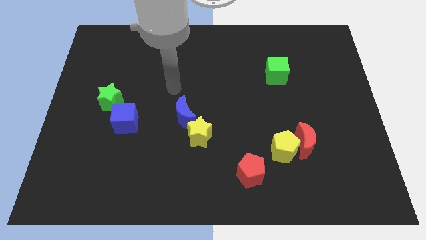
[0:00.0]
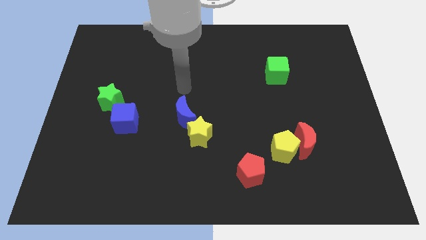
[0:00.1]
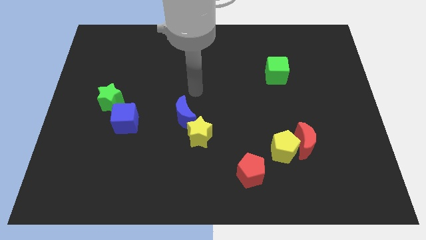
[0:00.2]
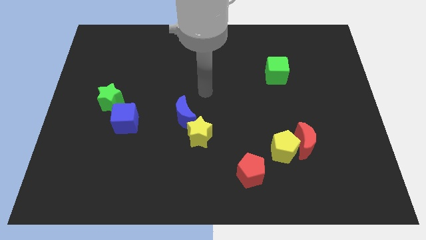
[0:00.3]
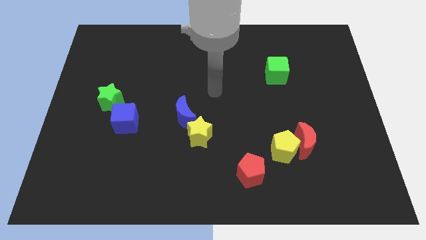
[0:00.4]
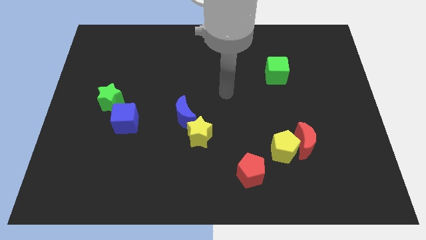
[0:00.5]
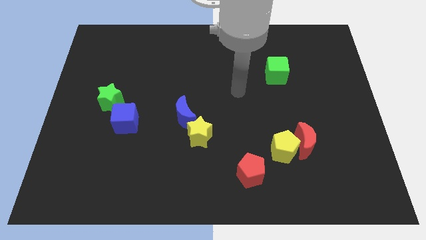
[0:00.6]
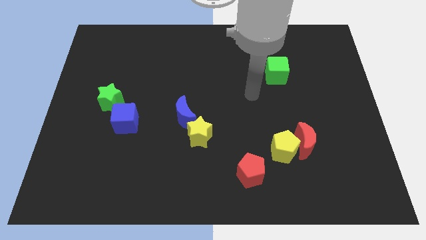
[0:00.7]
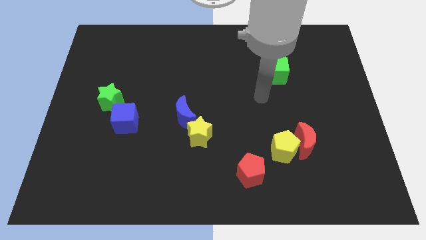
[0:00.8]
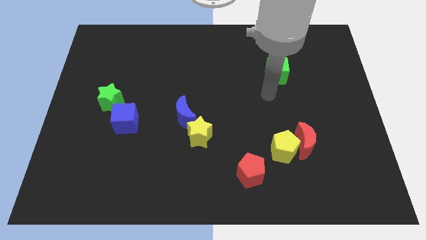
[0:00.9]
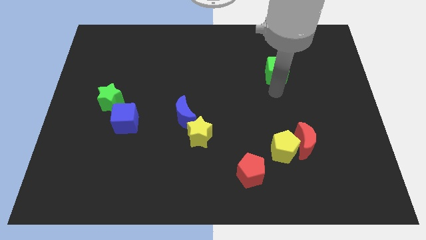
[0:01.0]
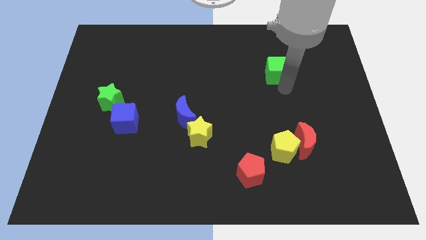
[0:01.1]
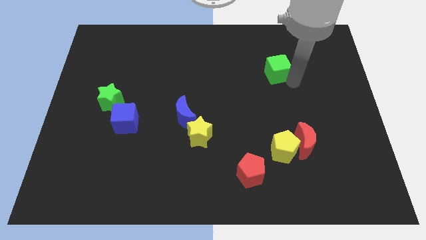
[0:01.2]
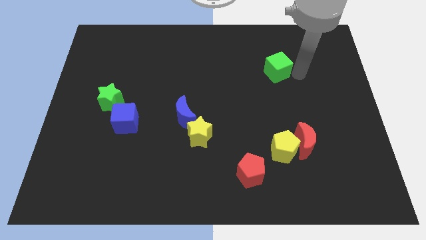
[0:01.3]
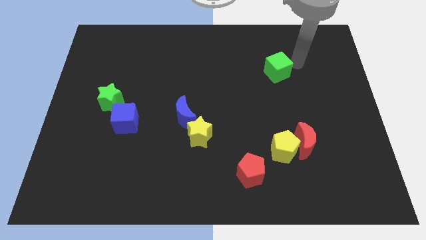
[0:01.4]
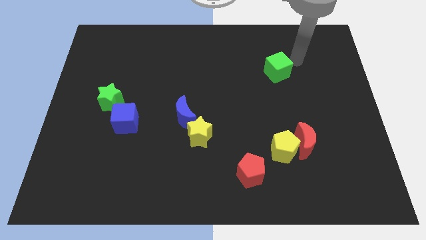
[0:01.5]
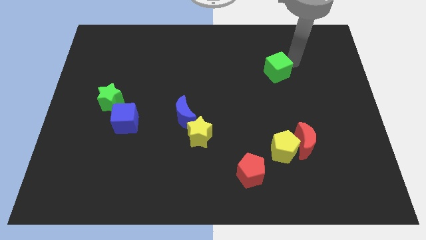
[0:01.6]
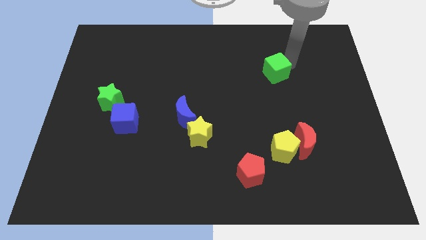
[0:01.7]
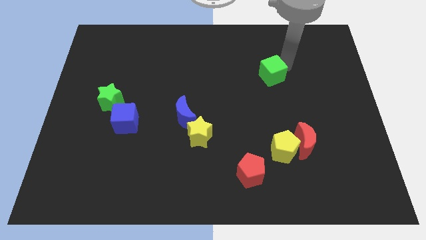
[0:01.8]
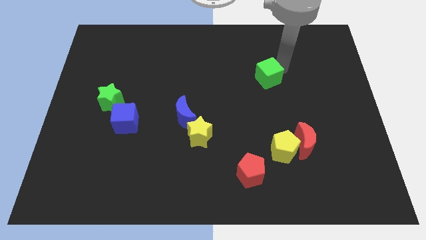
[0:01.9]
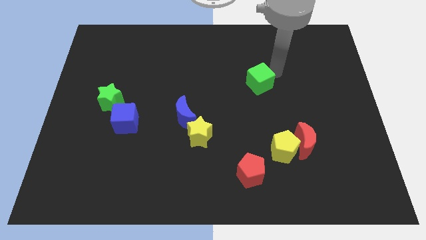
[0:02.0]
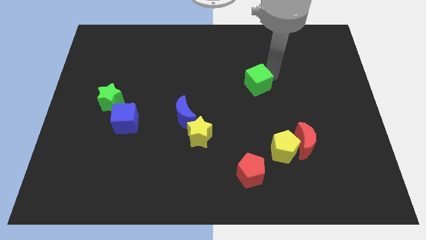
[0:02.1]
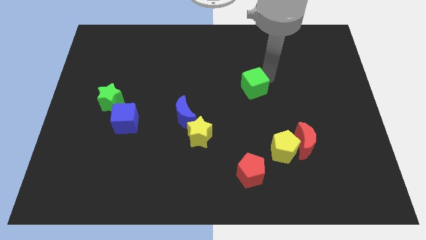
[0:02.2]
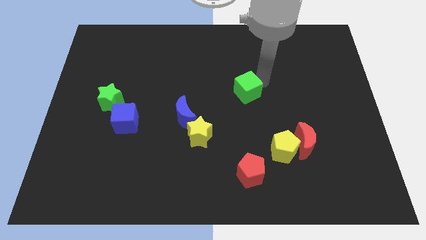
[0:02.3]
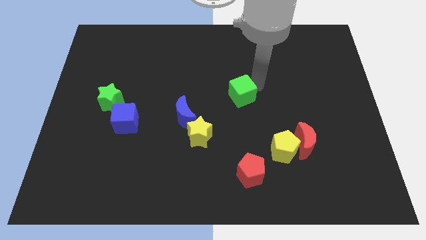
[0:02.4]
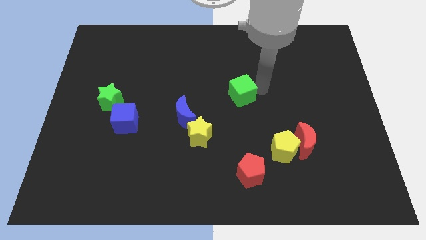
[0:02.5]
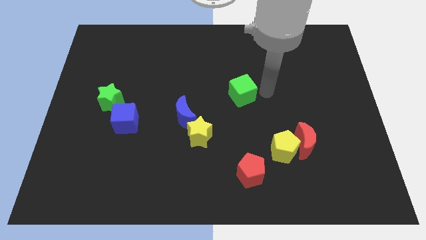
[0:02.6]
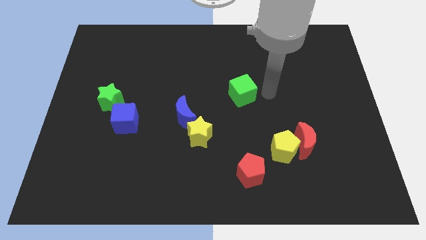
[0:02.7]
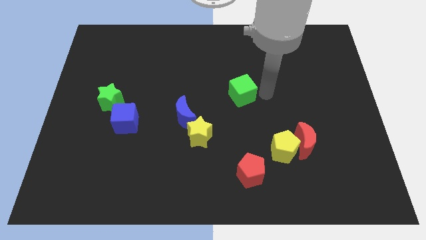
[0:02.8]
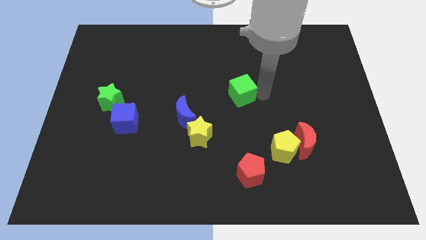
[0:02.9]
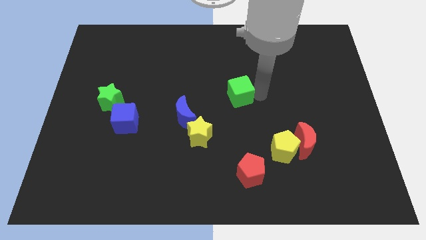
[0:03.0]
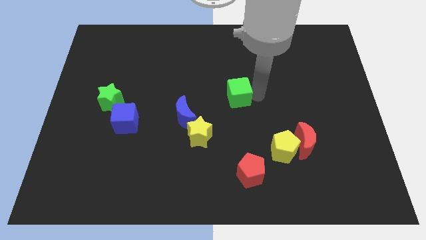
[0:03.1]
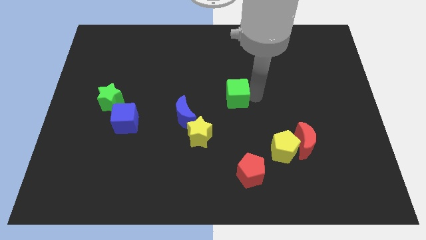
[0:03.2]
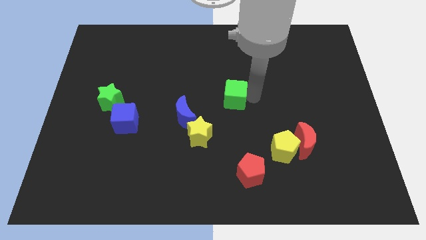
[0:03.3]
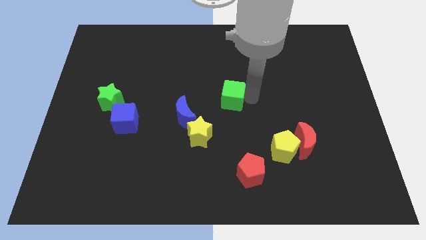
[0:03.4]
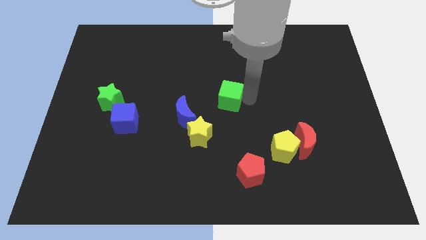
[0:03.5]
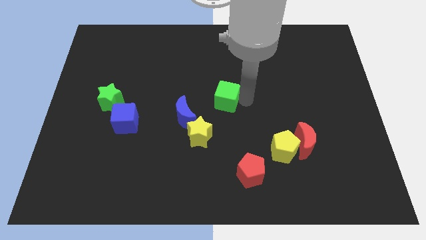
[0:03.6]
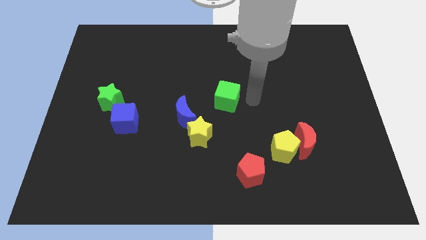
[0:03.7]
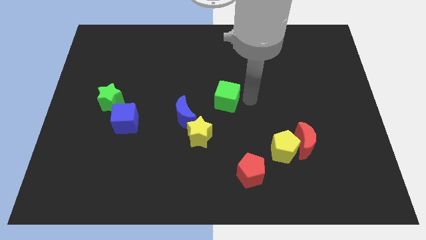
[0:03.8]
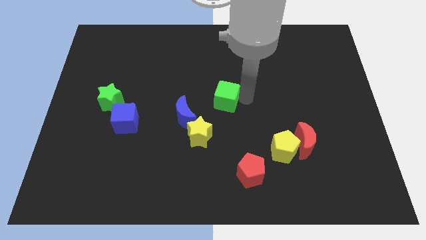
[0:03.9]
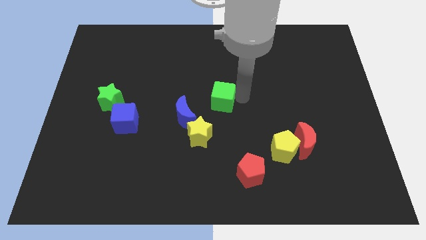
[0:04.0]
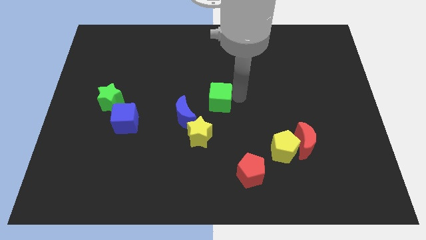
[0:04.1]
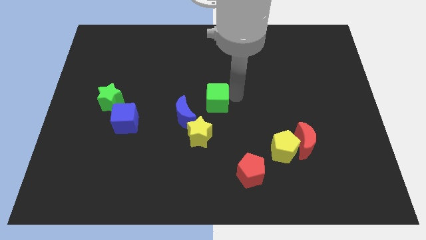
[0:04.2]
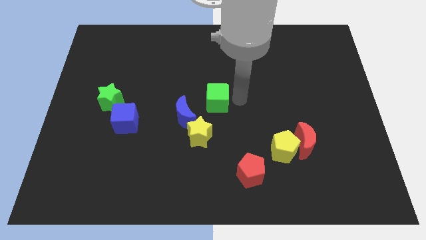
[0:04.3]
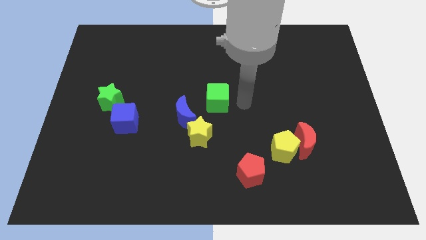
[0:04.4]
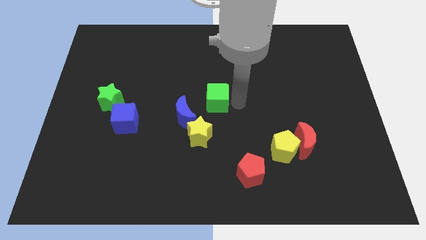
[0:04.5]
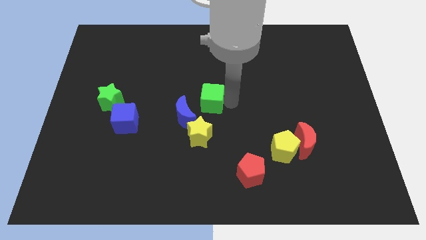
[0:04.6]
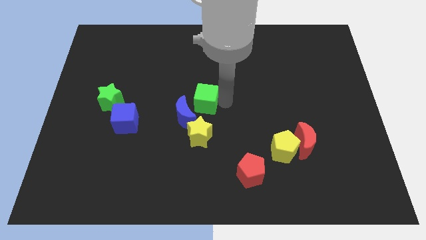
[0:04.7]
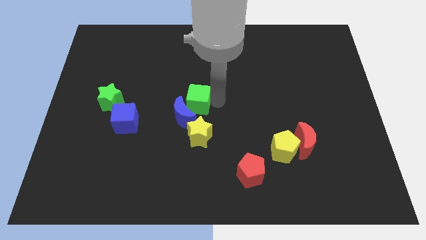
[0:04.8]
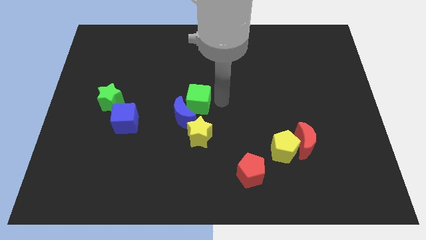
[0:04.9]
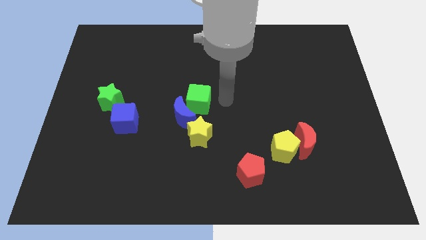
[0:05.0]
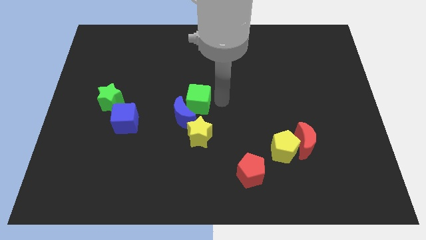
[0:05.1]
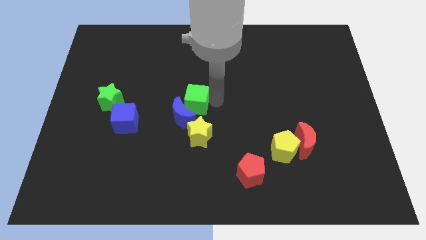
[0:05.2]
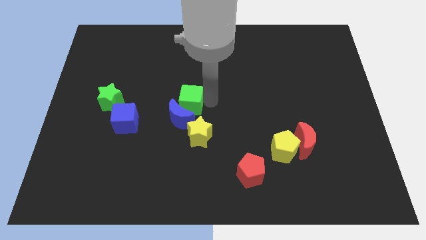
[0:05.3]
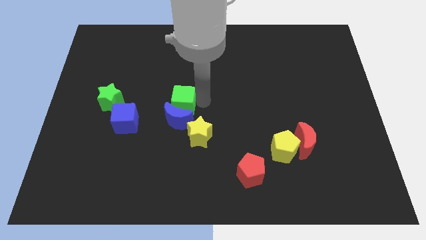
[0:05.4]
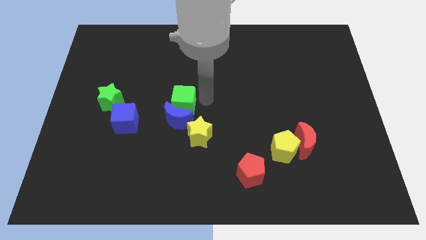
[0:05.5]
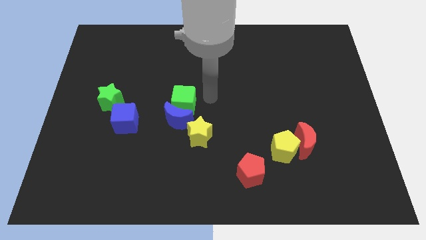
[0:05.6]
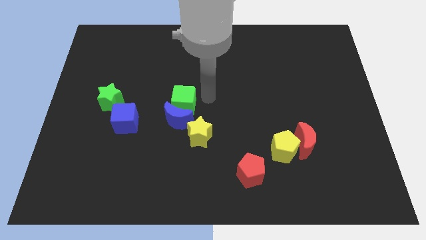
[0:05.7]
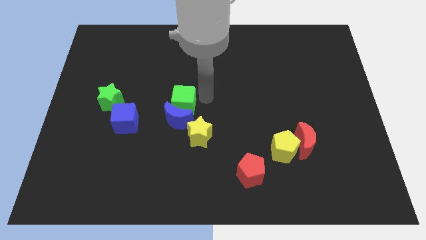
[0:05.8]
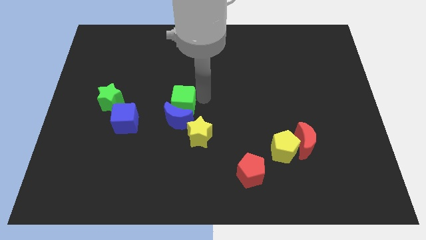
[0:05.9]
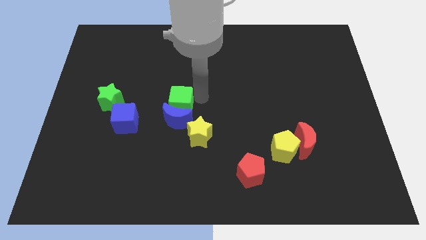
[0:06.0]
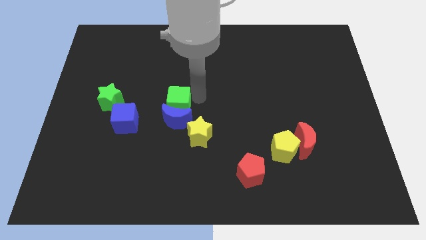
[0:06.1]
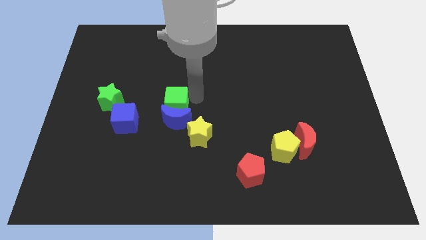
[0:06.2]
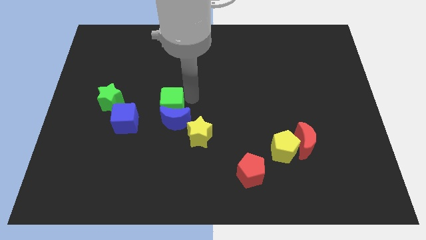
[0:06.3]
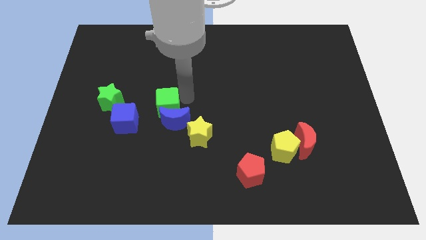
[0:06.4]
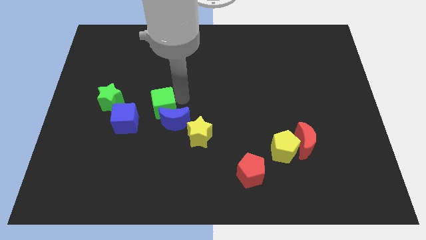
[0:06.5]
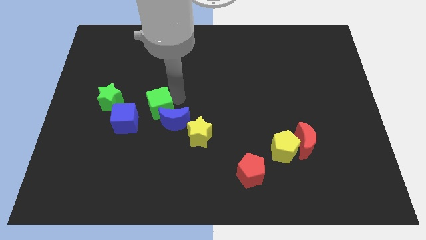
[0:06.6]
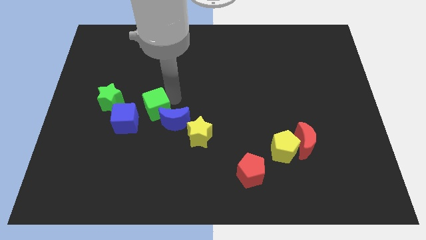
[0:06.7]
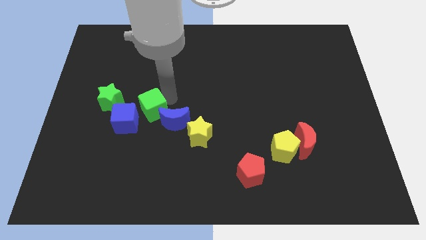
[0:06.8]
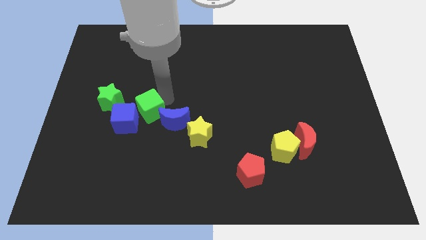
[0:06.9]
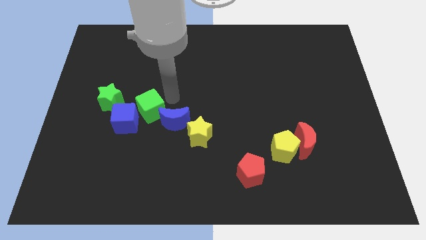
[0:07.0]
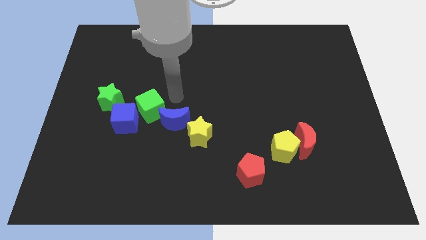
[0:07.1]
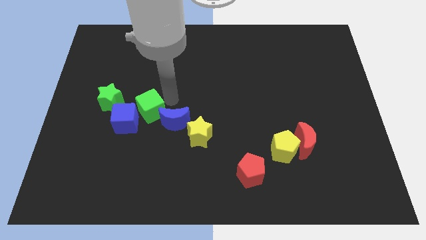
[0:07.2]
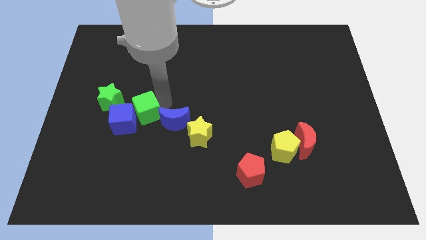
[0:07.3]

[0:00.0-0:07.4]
move the green cube towards the blue cube
